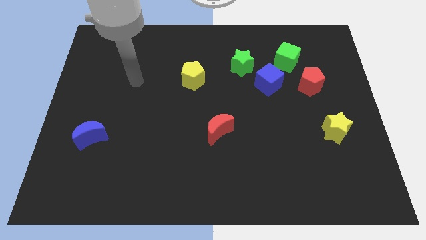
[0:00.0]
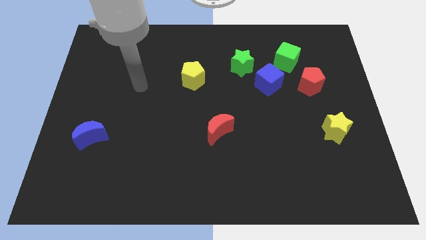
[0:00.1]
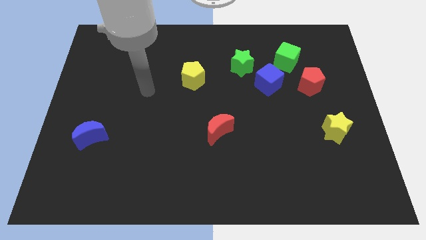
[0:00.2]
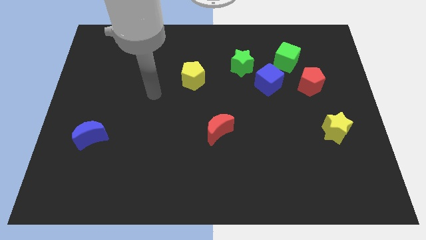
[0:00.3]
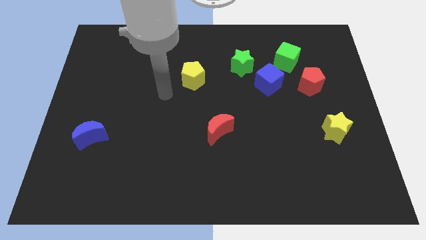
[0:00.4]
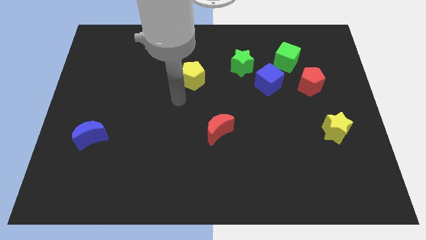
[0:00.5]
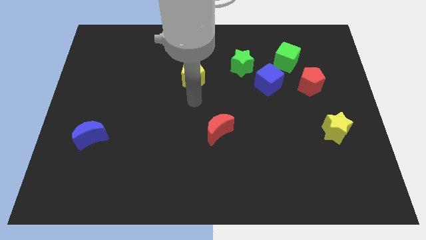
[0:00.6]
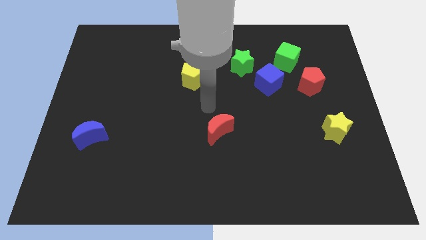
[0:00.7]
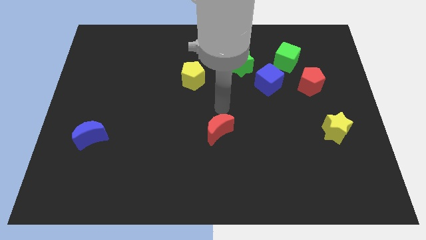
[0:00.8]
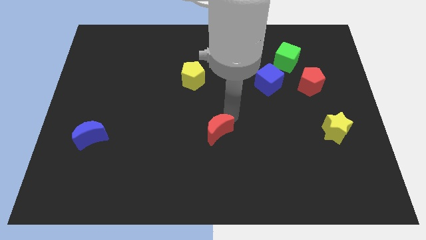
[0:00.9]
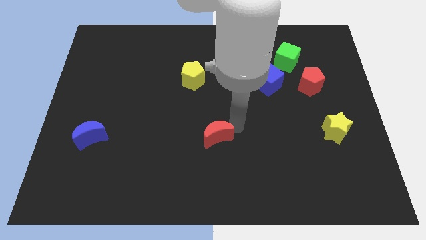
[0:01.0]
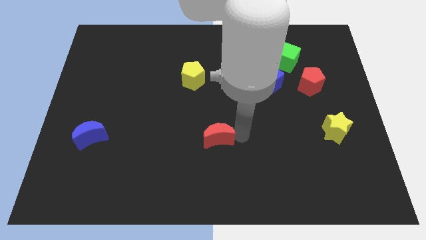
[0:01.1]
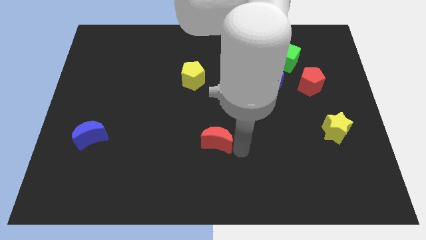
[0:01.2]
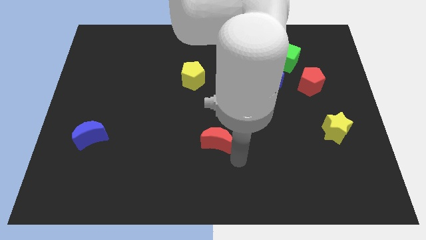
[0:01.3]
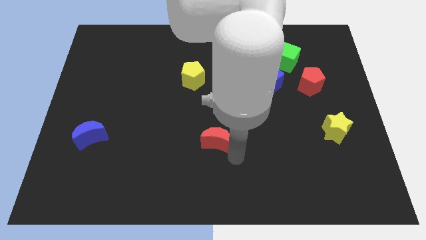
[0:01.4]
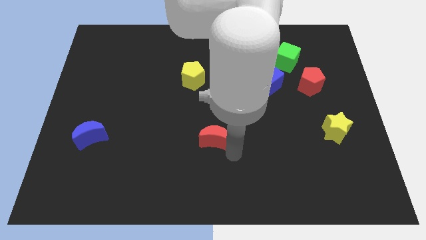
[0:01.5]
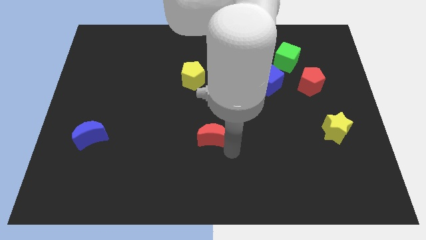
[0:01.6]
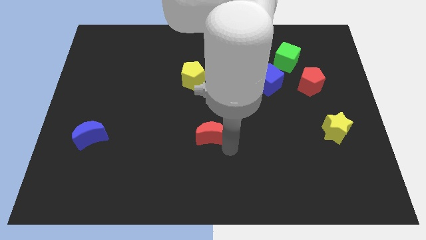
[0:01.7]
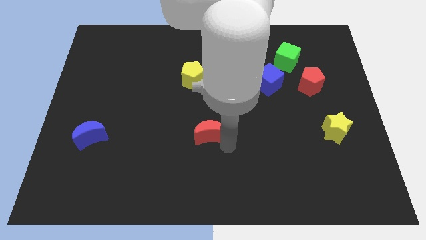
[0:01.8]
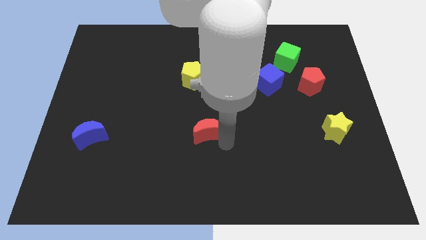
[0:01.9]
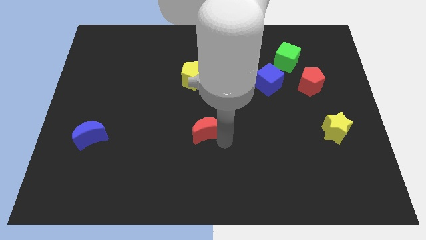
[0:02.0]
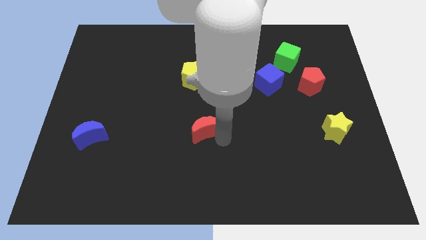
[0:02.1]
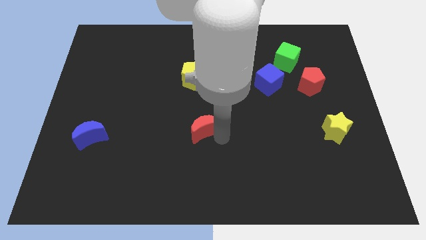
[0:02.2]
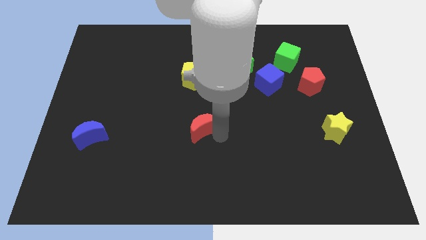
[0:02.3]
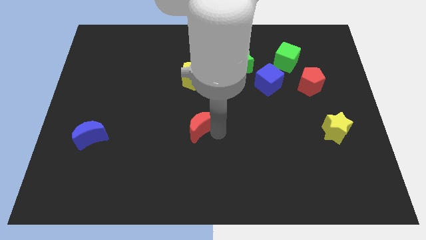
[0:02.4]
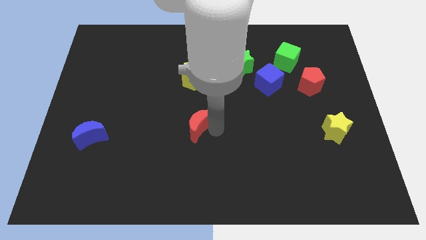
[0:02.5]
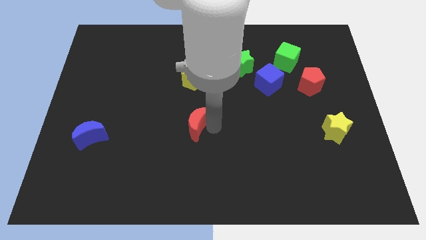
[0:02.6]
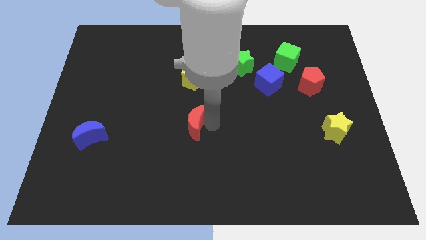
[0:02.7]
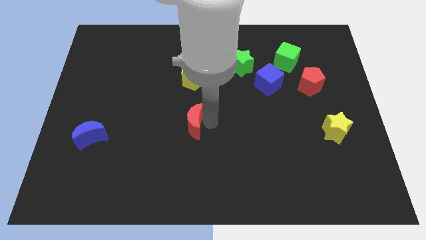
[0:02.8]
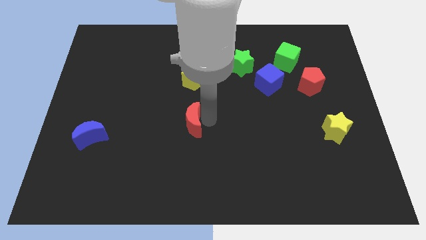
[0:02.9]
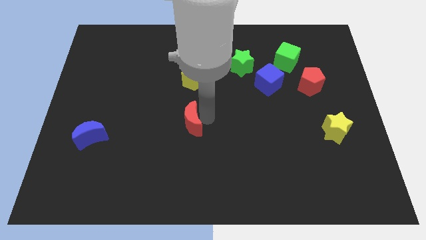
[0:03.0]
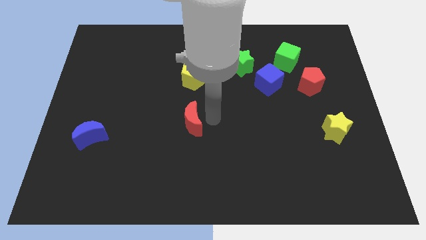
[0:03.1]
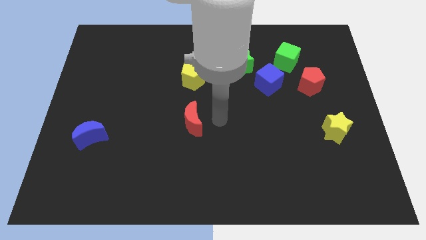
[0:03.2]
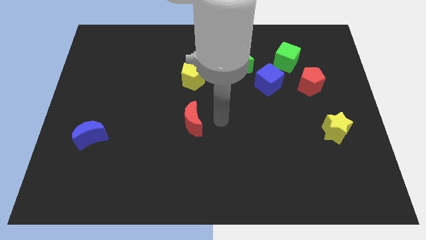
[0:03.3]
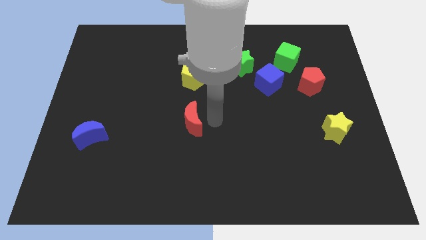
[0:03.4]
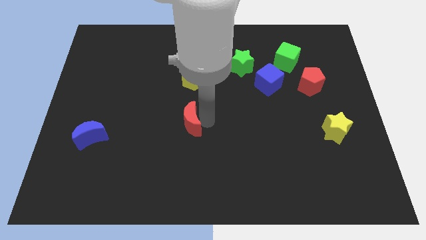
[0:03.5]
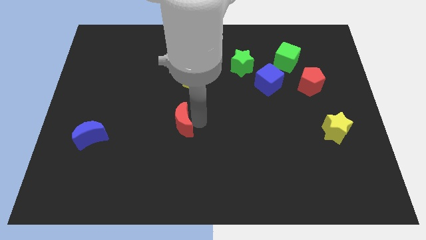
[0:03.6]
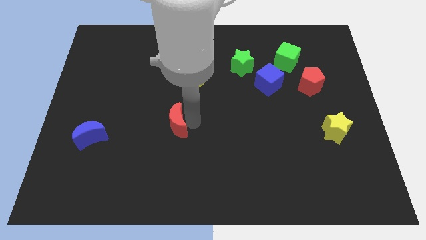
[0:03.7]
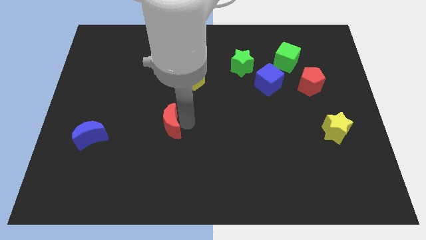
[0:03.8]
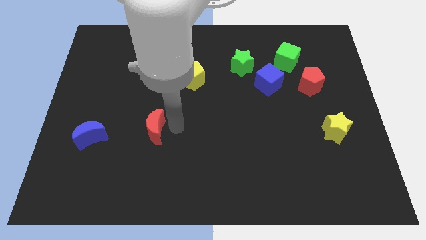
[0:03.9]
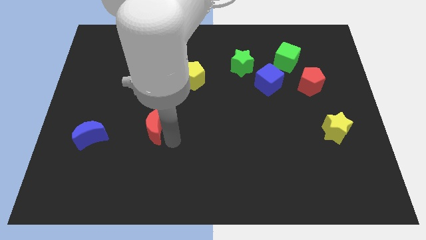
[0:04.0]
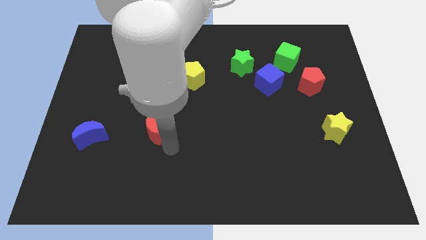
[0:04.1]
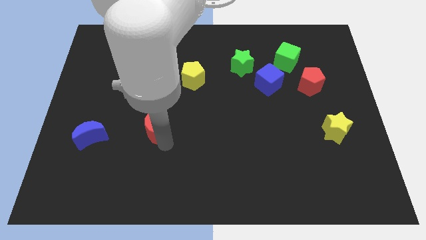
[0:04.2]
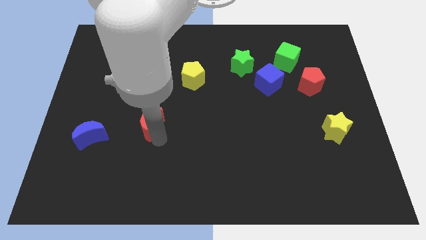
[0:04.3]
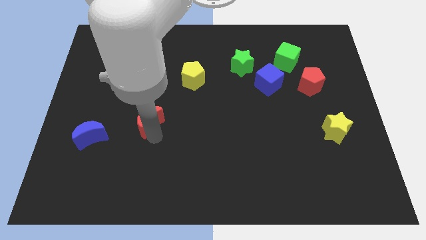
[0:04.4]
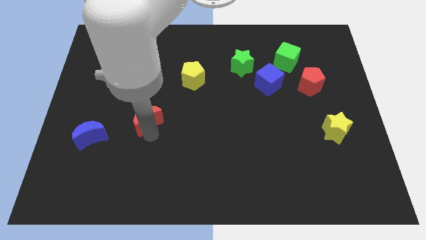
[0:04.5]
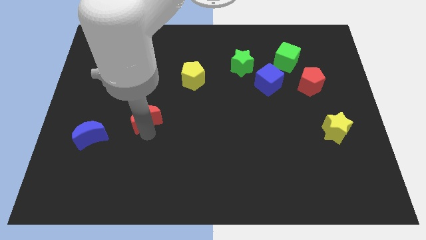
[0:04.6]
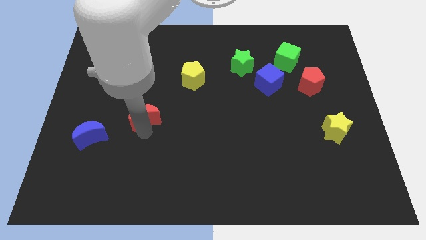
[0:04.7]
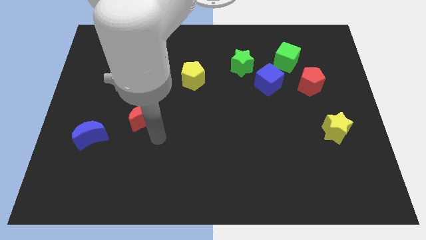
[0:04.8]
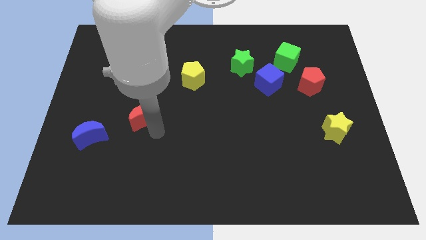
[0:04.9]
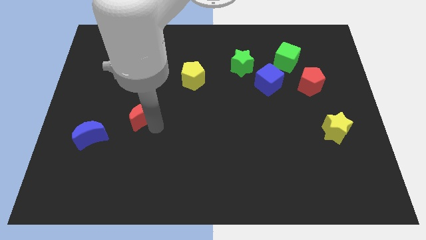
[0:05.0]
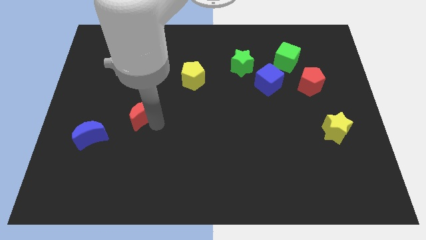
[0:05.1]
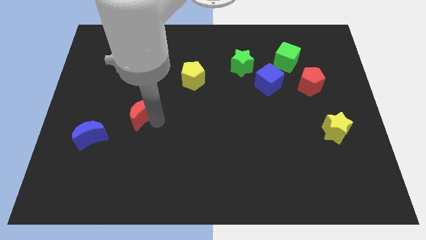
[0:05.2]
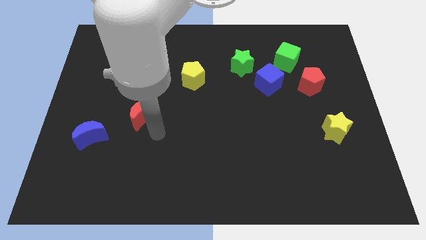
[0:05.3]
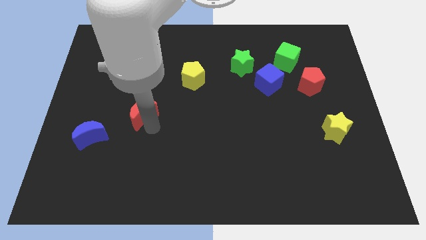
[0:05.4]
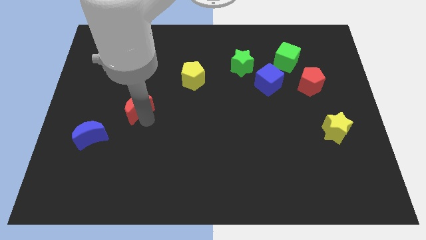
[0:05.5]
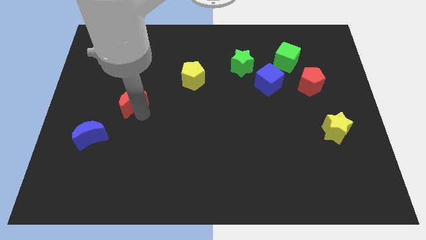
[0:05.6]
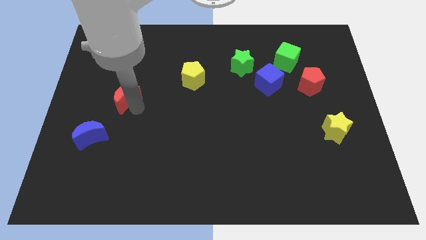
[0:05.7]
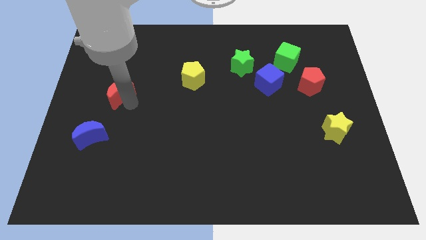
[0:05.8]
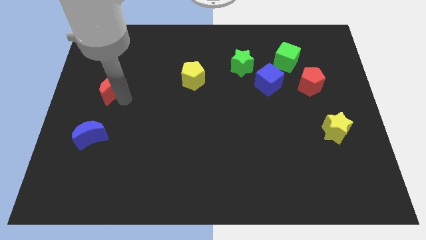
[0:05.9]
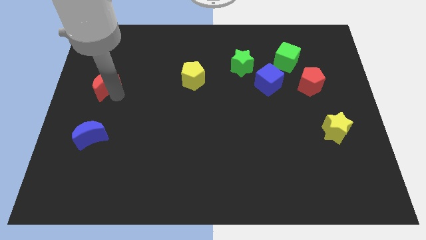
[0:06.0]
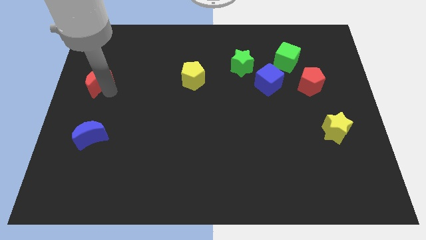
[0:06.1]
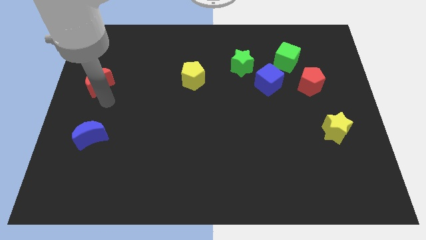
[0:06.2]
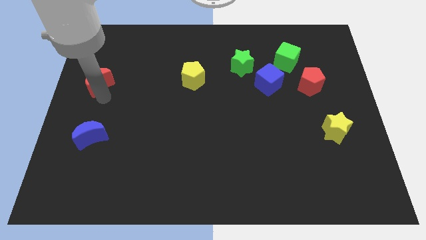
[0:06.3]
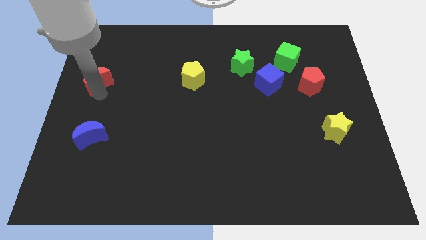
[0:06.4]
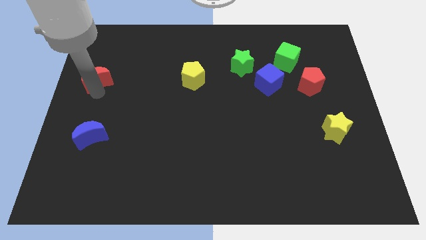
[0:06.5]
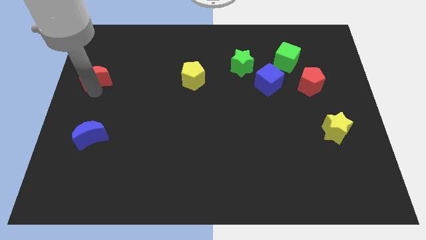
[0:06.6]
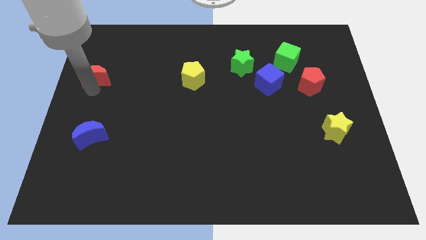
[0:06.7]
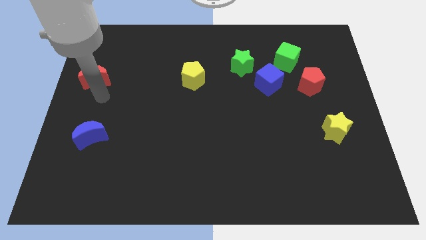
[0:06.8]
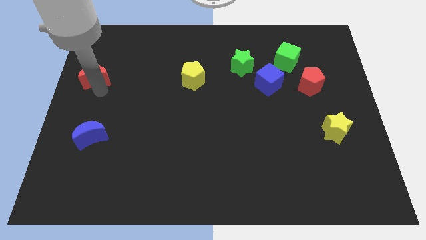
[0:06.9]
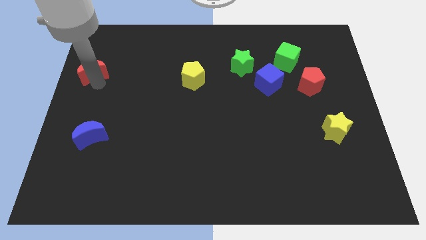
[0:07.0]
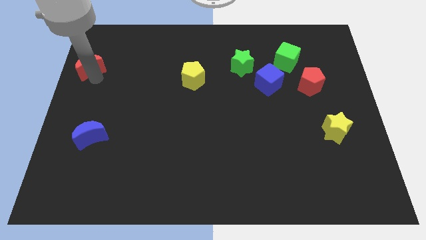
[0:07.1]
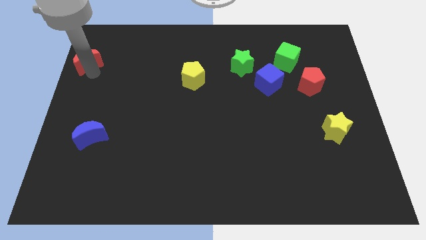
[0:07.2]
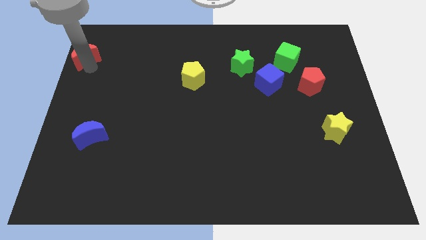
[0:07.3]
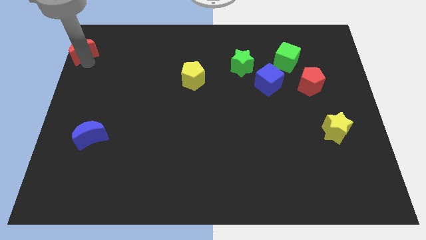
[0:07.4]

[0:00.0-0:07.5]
put the red moon to the upper left corner
